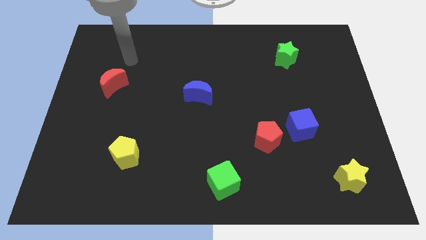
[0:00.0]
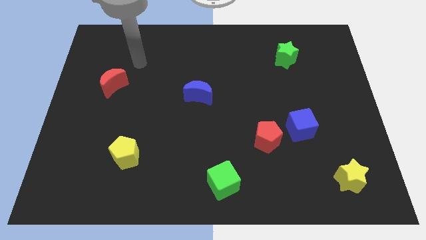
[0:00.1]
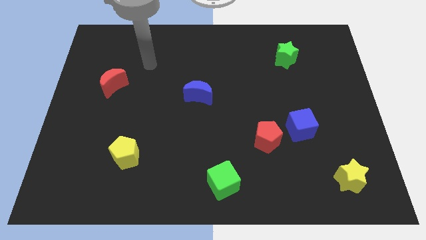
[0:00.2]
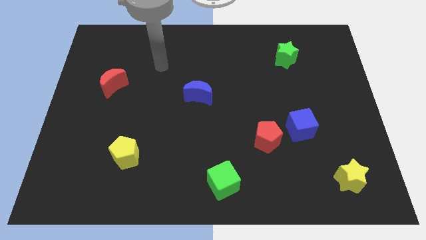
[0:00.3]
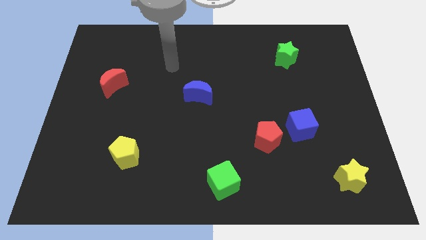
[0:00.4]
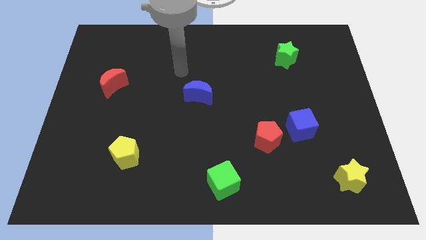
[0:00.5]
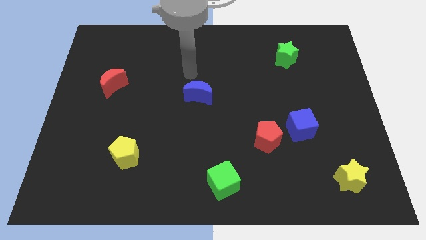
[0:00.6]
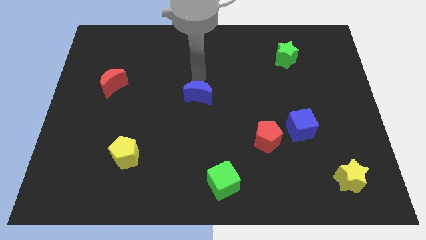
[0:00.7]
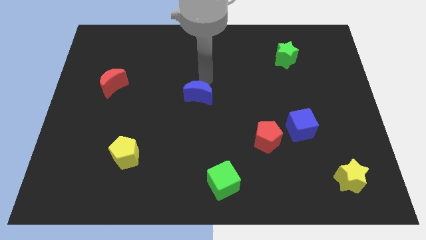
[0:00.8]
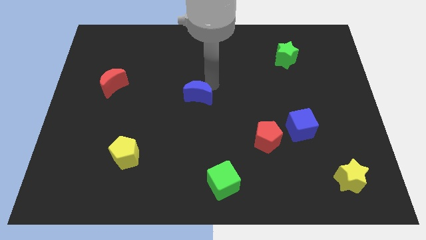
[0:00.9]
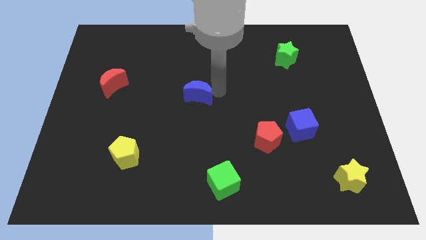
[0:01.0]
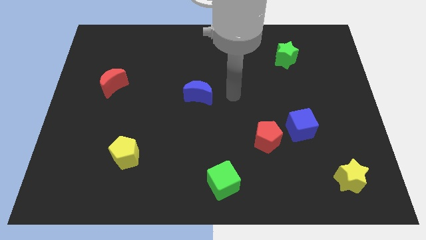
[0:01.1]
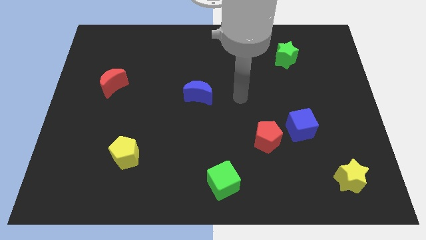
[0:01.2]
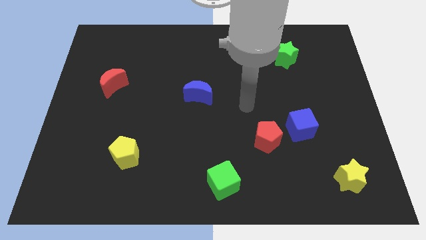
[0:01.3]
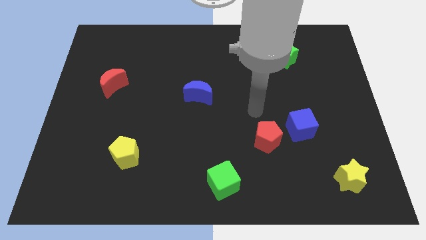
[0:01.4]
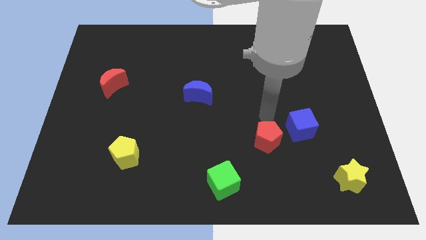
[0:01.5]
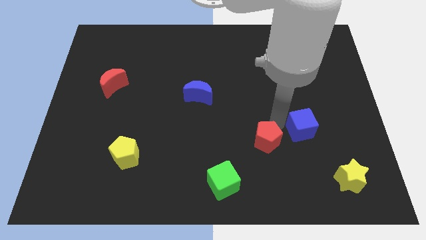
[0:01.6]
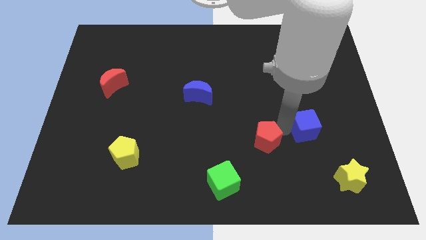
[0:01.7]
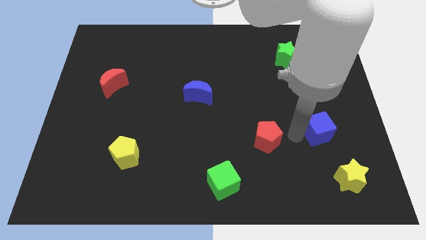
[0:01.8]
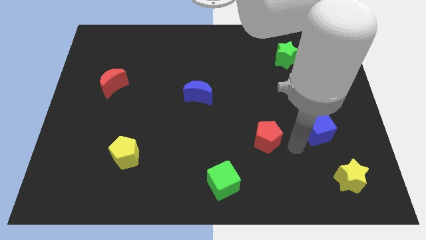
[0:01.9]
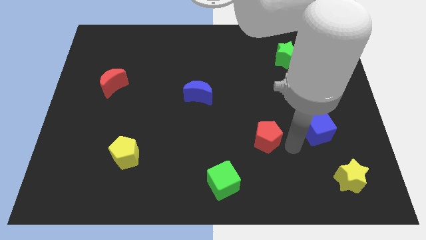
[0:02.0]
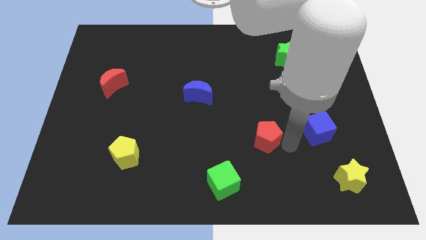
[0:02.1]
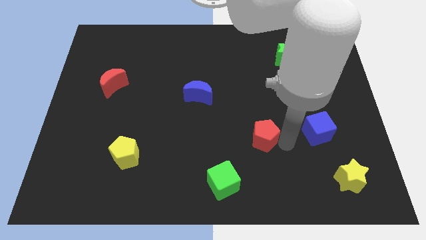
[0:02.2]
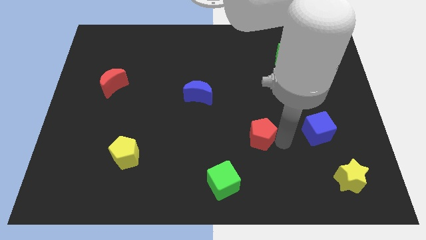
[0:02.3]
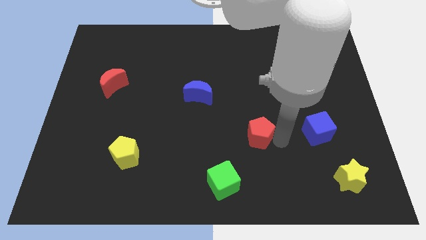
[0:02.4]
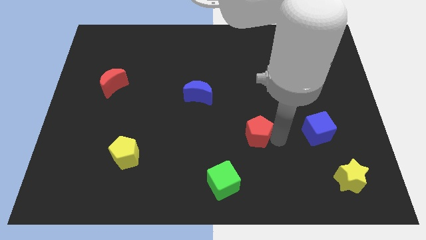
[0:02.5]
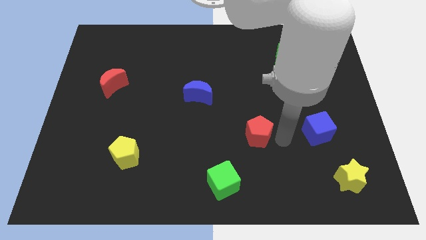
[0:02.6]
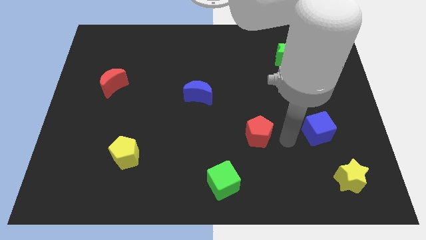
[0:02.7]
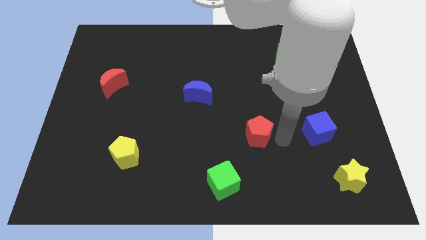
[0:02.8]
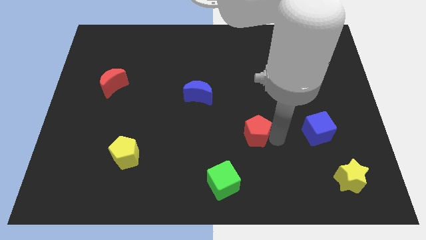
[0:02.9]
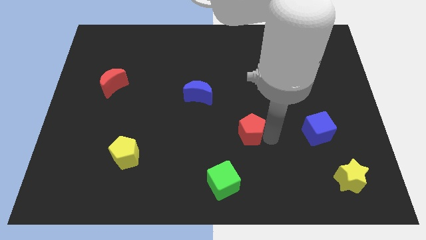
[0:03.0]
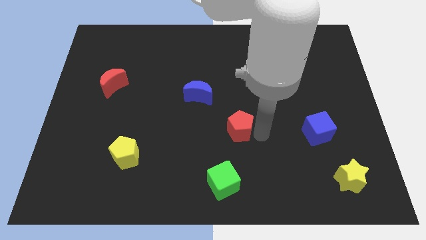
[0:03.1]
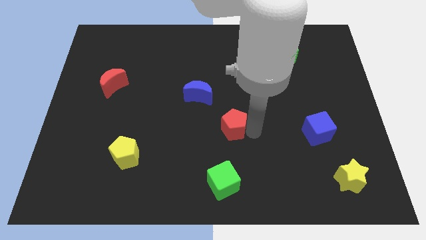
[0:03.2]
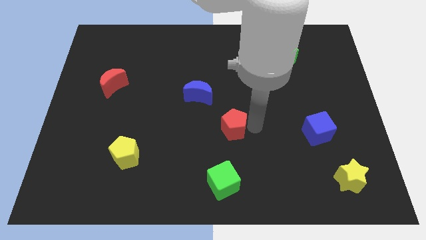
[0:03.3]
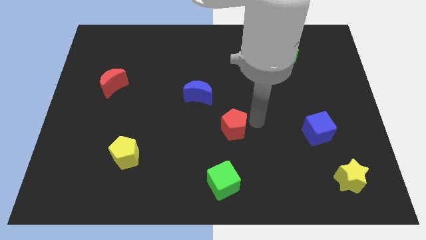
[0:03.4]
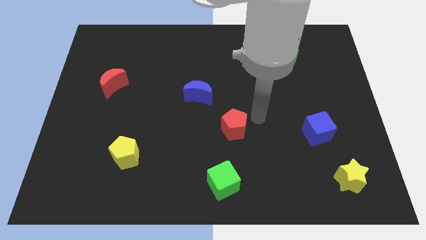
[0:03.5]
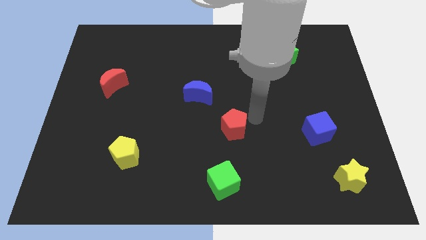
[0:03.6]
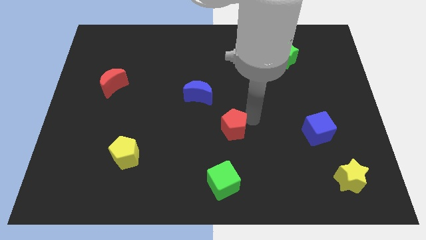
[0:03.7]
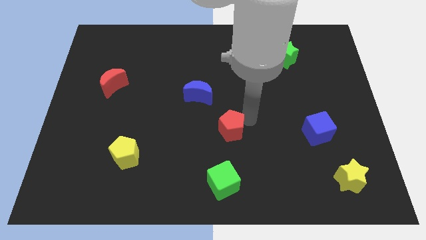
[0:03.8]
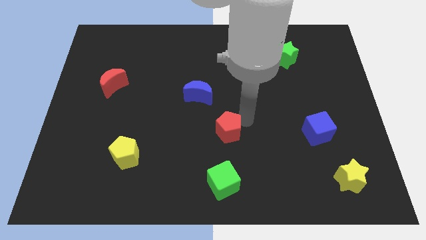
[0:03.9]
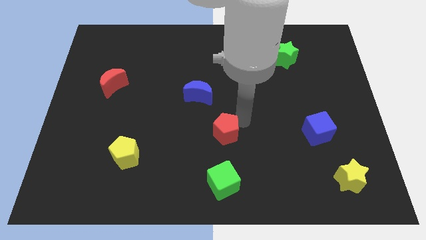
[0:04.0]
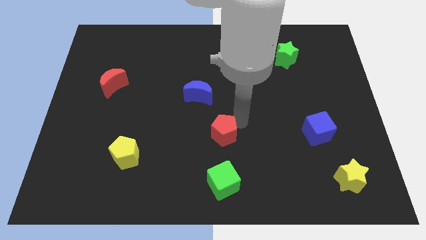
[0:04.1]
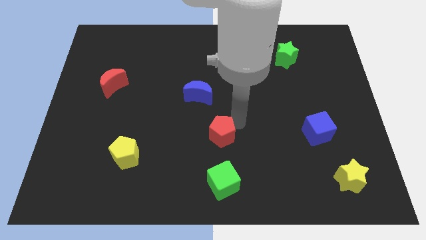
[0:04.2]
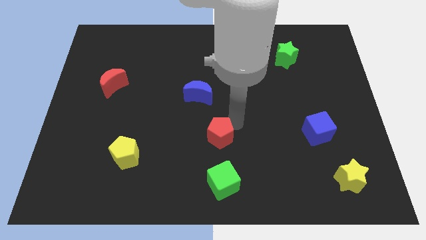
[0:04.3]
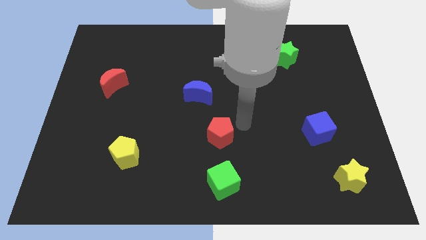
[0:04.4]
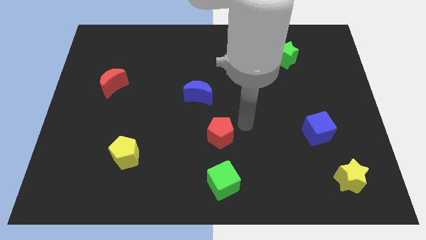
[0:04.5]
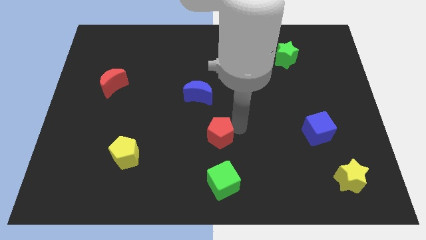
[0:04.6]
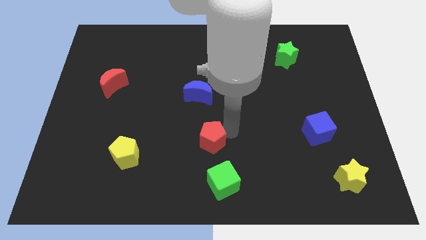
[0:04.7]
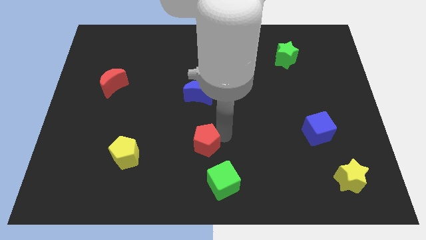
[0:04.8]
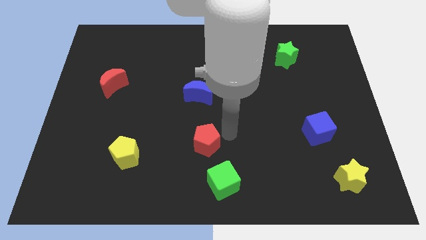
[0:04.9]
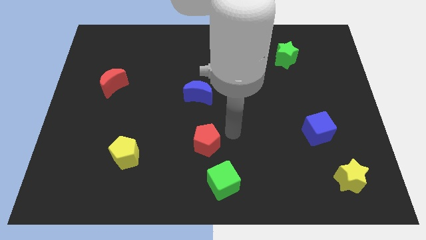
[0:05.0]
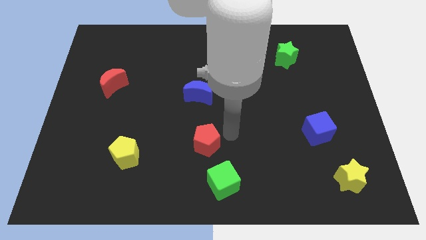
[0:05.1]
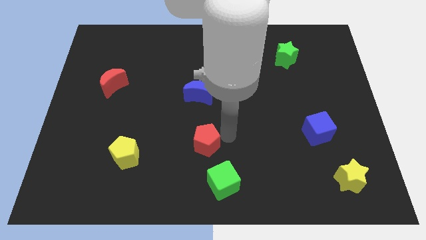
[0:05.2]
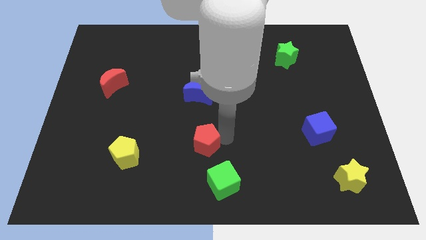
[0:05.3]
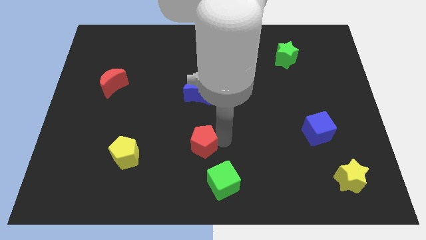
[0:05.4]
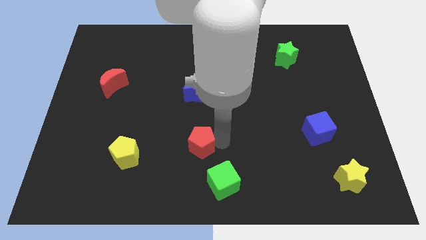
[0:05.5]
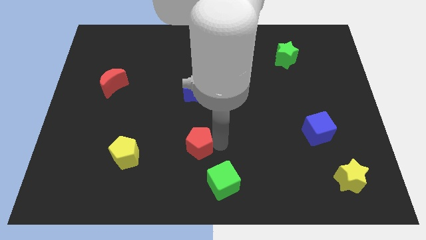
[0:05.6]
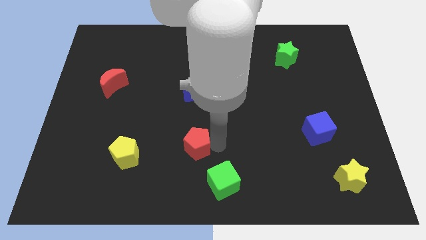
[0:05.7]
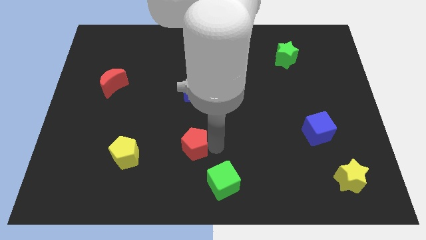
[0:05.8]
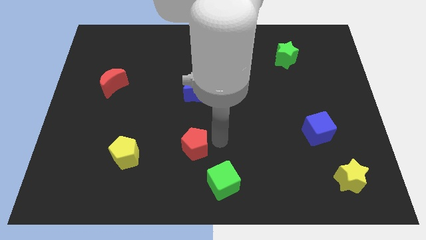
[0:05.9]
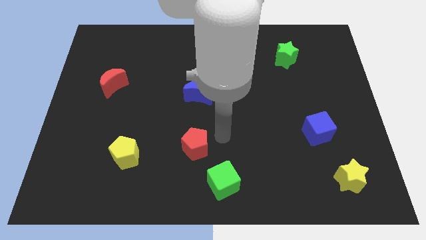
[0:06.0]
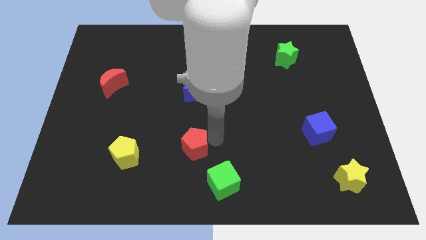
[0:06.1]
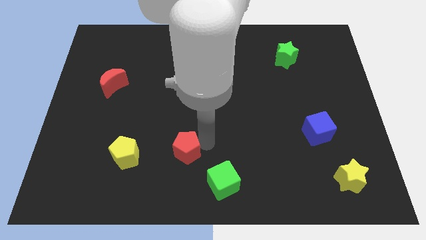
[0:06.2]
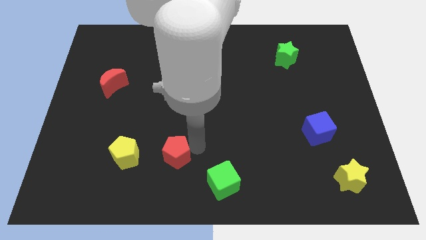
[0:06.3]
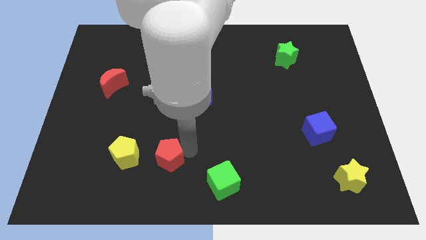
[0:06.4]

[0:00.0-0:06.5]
push the red pentagon left

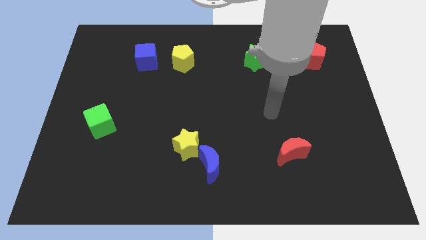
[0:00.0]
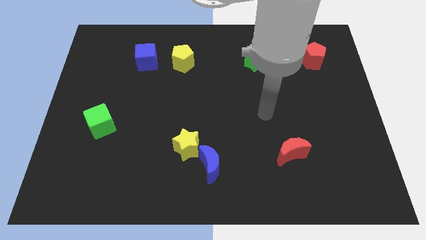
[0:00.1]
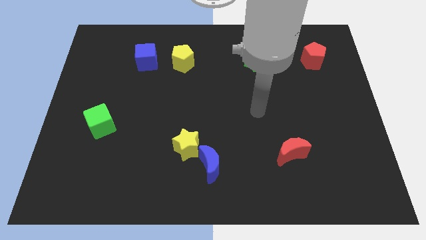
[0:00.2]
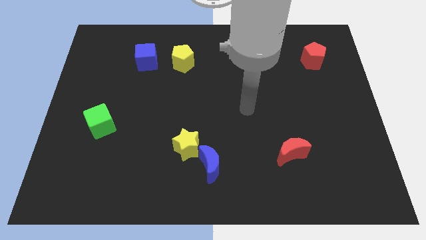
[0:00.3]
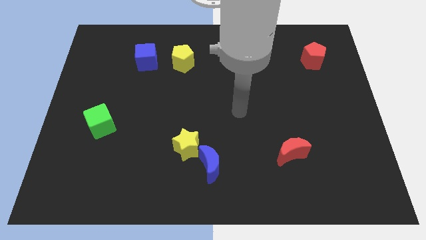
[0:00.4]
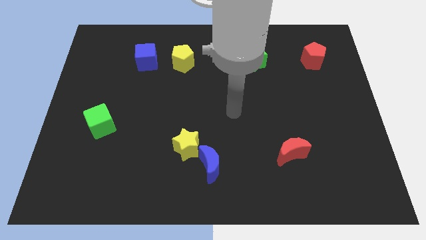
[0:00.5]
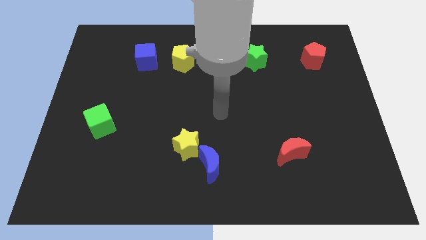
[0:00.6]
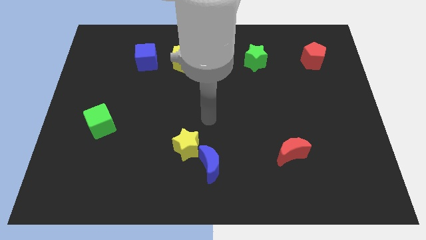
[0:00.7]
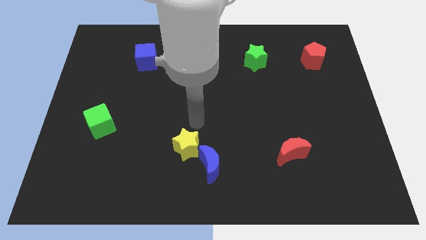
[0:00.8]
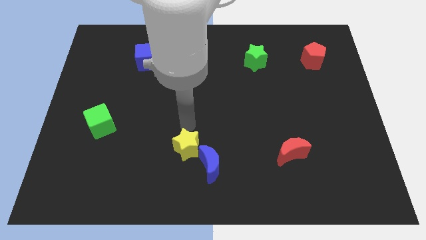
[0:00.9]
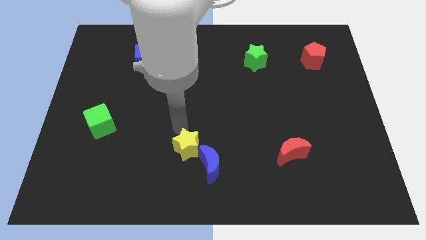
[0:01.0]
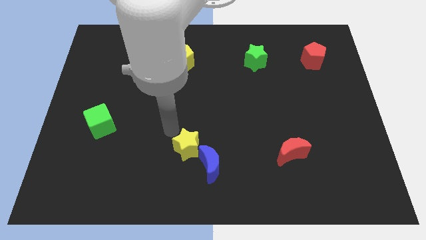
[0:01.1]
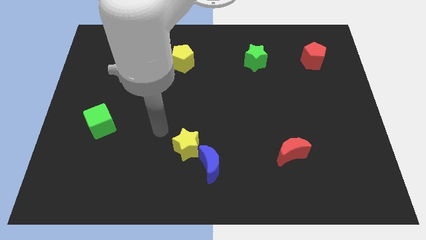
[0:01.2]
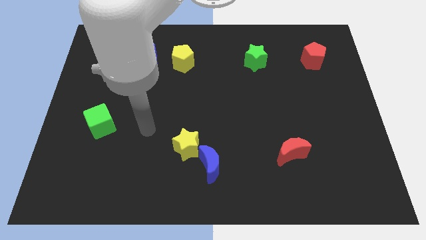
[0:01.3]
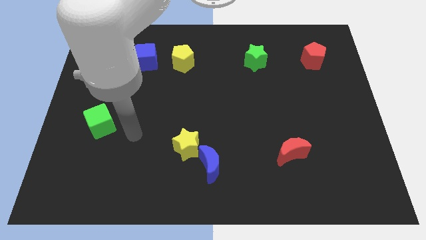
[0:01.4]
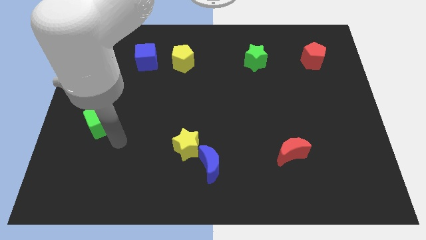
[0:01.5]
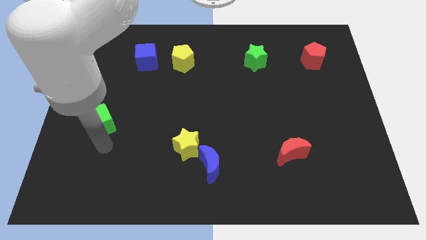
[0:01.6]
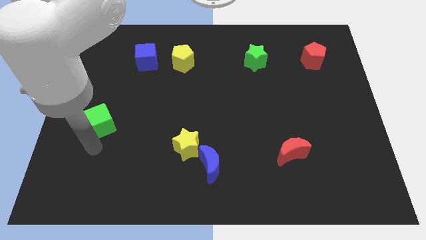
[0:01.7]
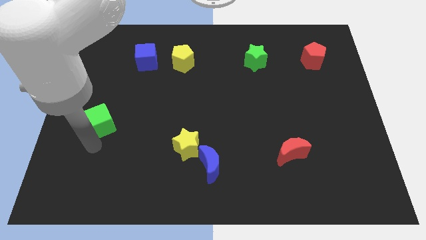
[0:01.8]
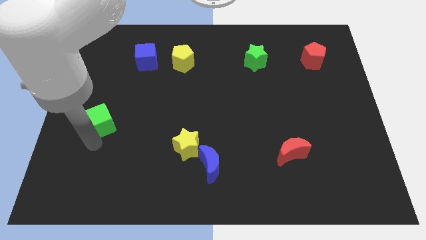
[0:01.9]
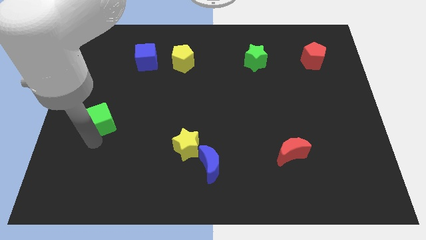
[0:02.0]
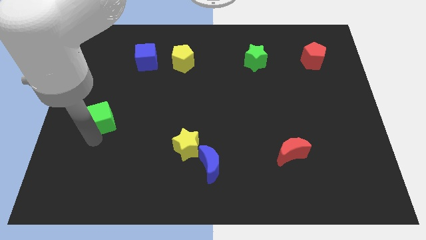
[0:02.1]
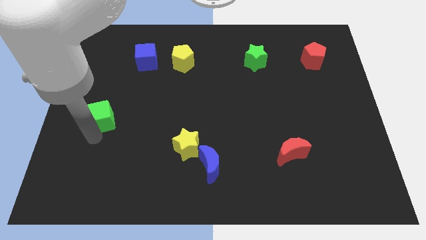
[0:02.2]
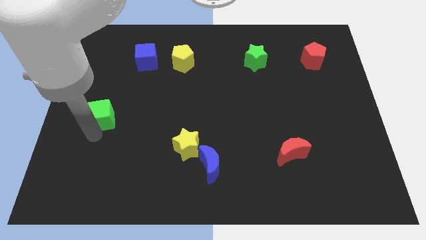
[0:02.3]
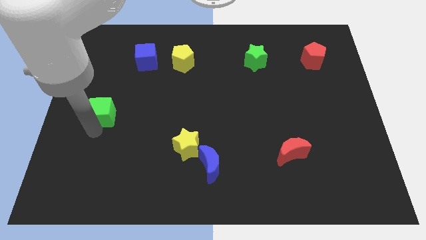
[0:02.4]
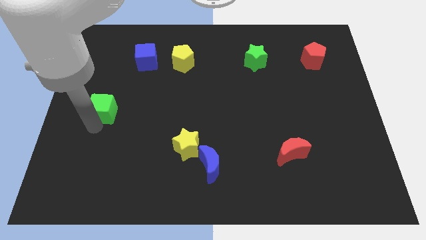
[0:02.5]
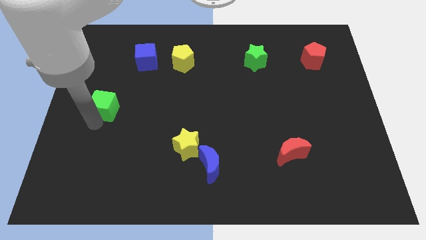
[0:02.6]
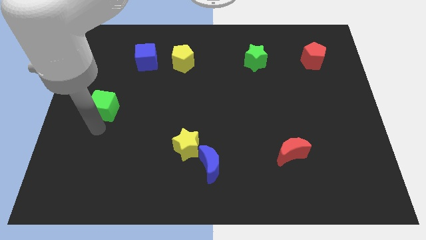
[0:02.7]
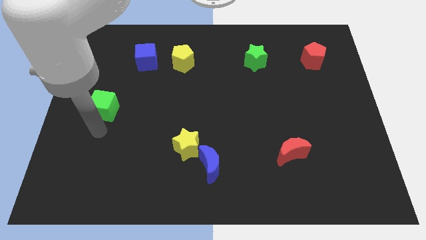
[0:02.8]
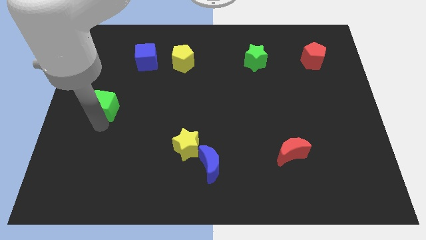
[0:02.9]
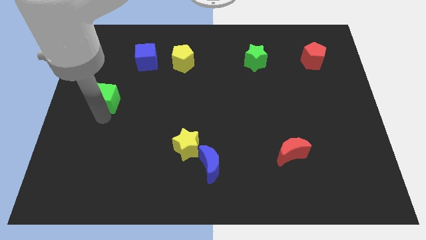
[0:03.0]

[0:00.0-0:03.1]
move the green cube a little upwards
